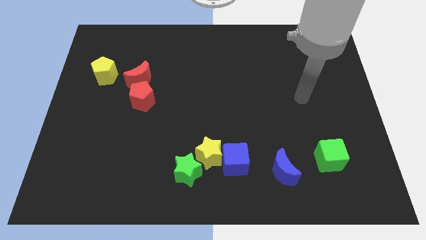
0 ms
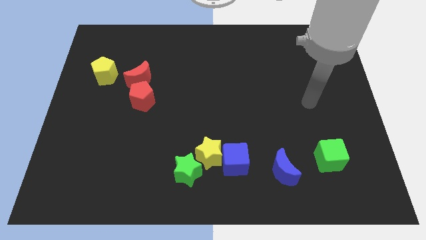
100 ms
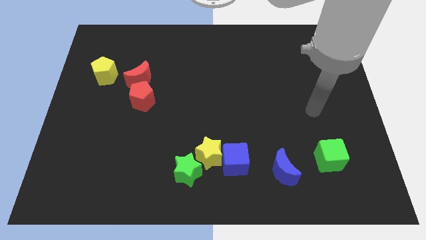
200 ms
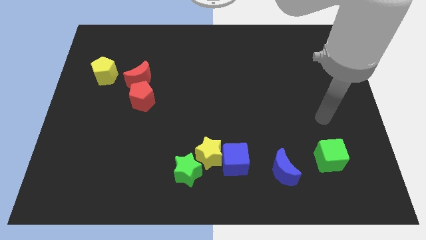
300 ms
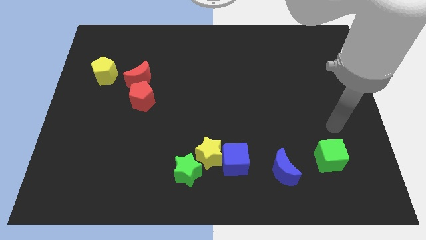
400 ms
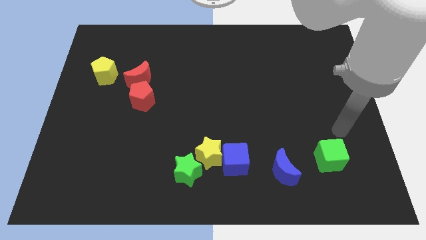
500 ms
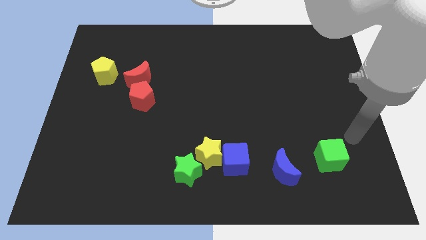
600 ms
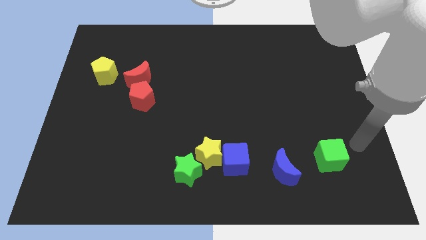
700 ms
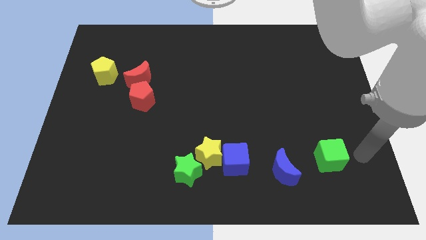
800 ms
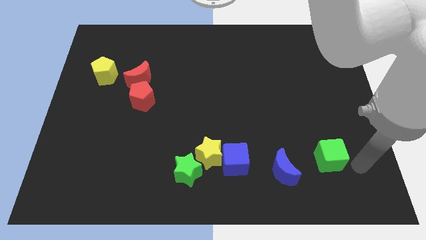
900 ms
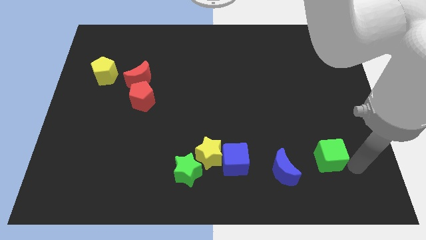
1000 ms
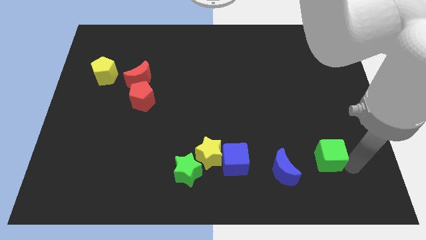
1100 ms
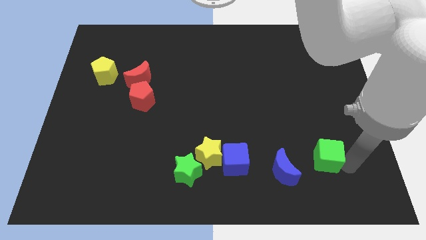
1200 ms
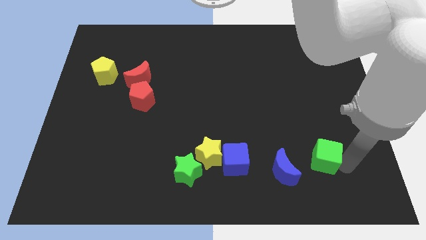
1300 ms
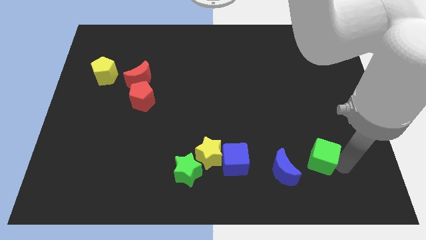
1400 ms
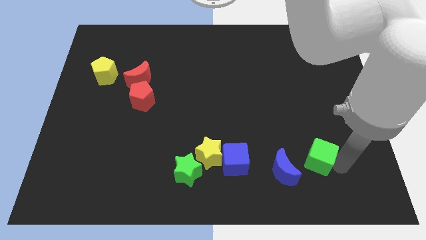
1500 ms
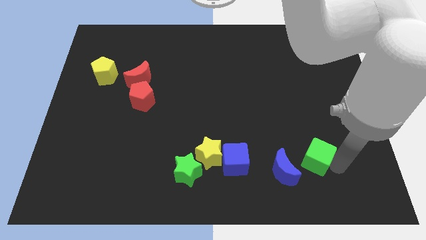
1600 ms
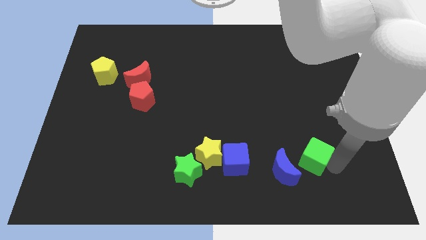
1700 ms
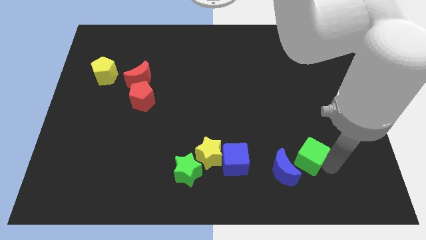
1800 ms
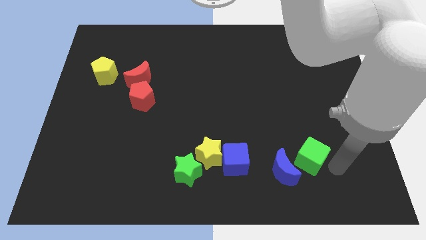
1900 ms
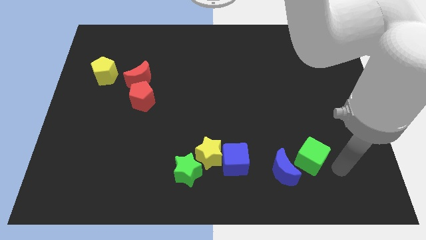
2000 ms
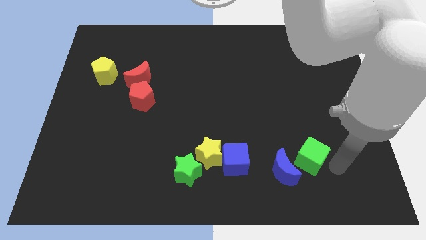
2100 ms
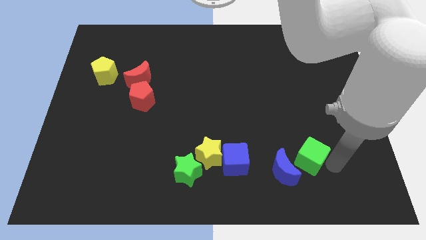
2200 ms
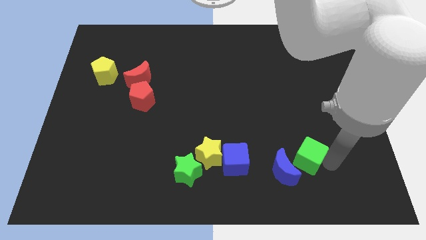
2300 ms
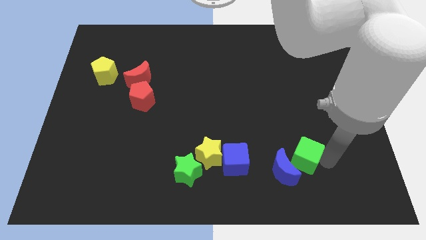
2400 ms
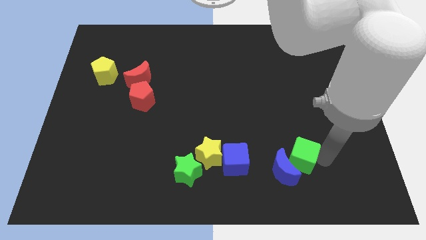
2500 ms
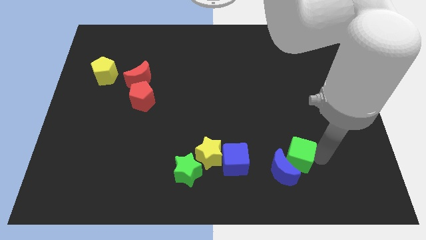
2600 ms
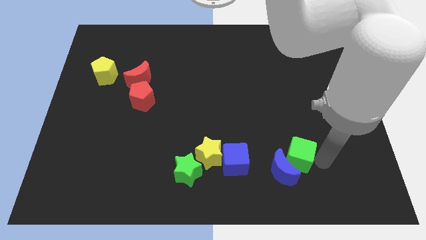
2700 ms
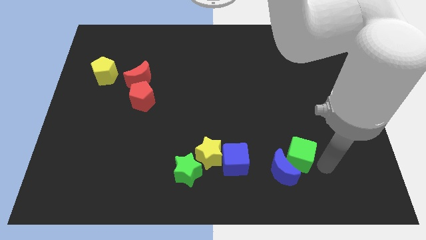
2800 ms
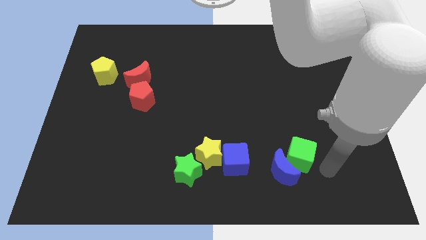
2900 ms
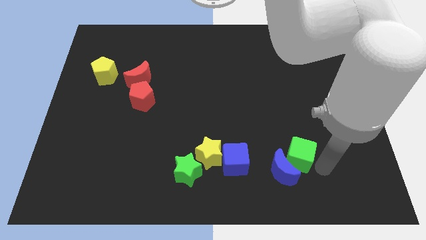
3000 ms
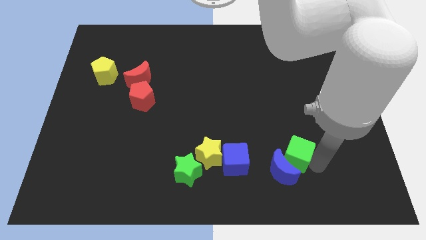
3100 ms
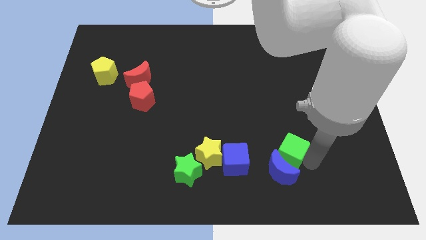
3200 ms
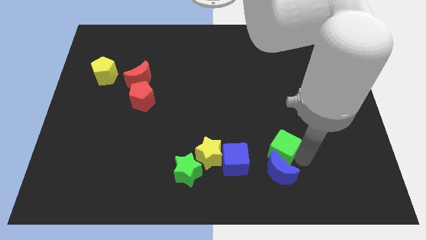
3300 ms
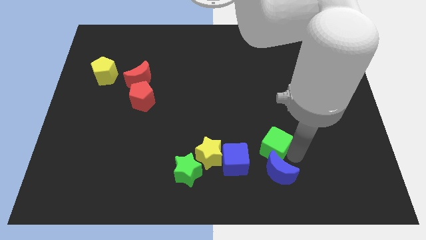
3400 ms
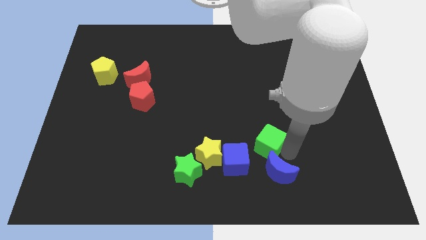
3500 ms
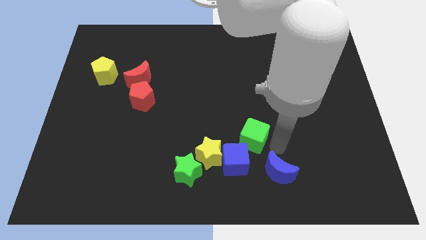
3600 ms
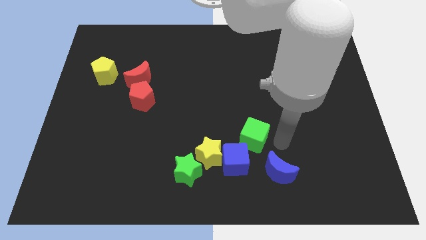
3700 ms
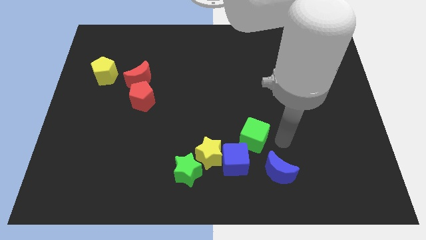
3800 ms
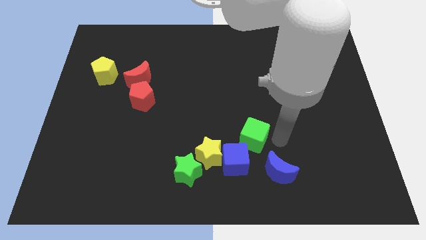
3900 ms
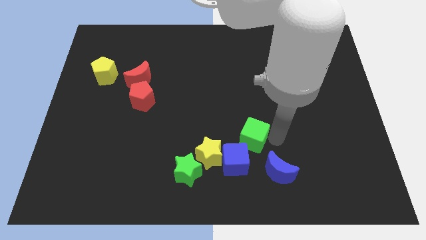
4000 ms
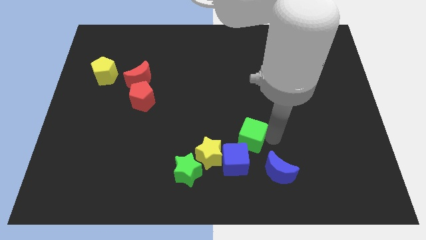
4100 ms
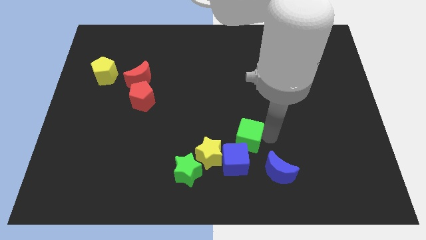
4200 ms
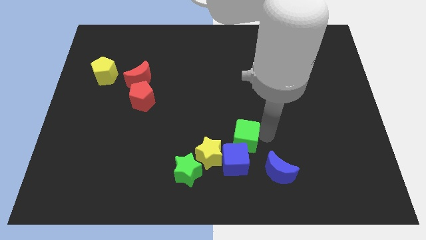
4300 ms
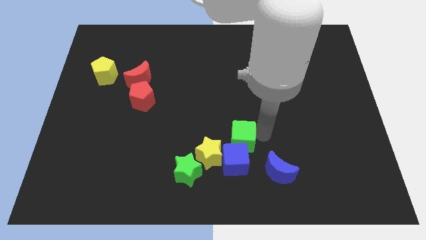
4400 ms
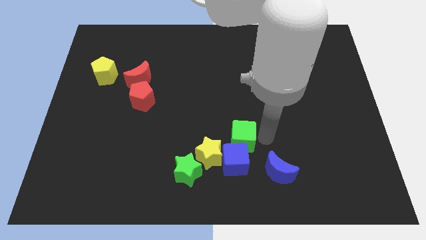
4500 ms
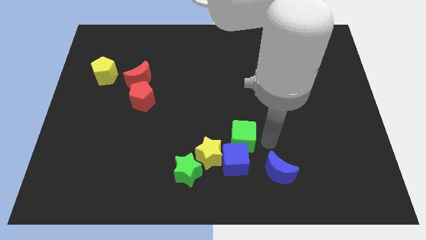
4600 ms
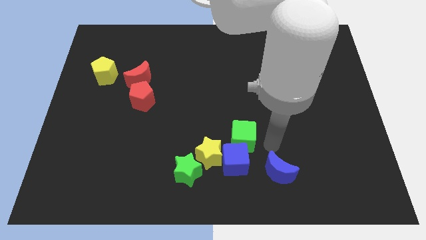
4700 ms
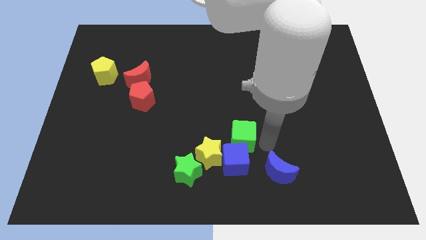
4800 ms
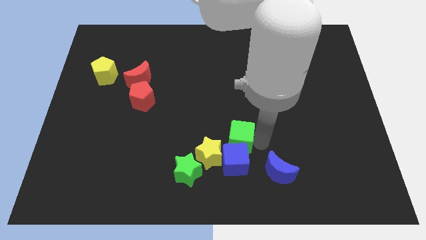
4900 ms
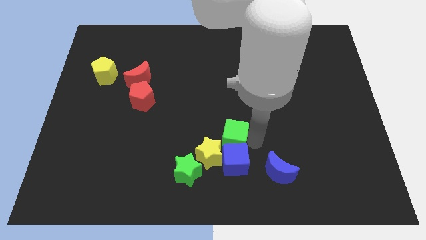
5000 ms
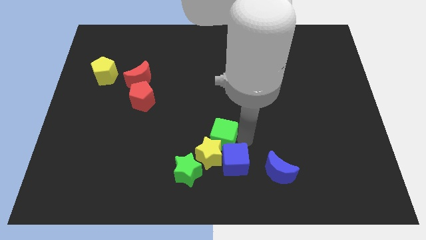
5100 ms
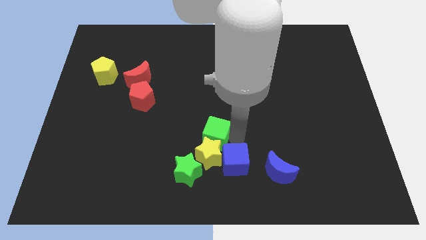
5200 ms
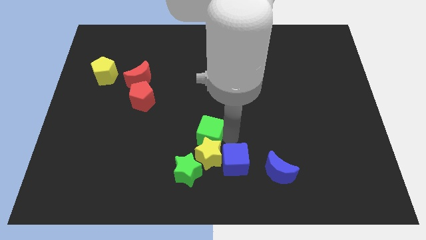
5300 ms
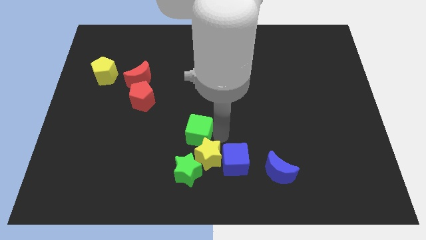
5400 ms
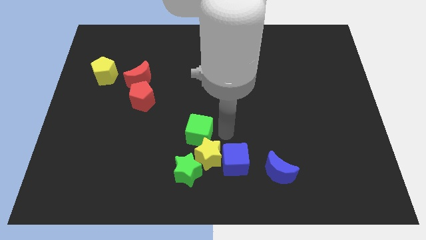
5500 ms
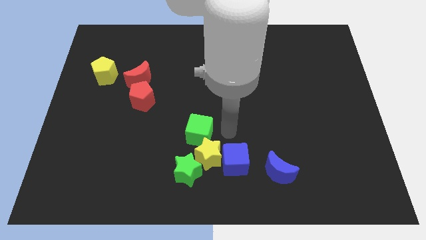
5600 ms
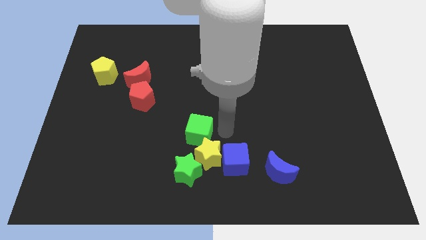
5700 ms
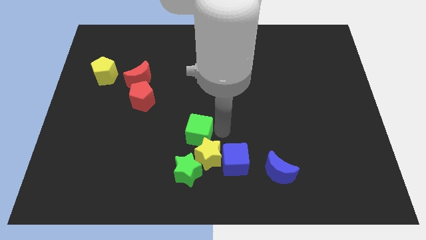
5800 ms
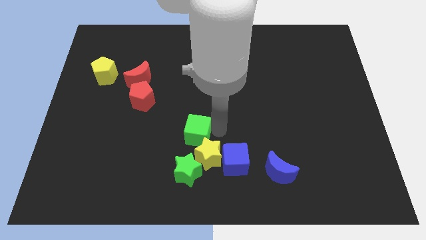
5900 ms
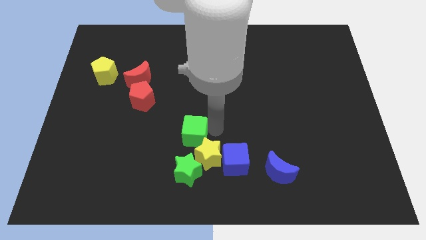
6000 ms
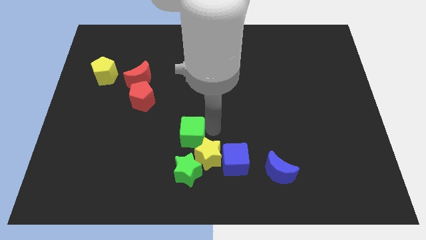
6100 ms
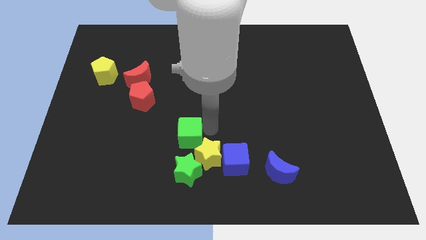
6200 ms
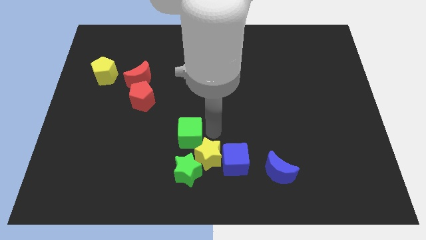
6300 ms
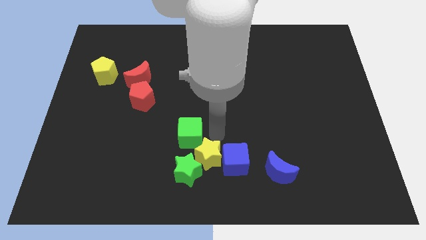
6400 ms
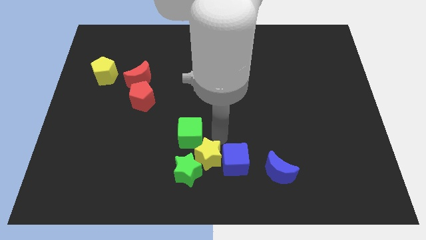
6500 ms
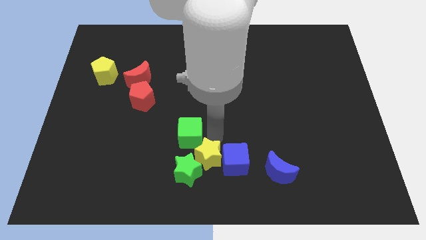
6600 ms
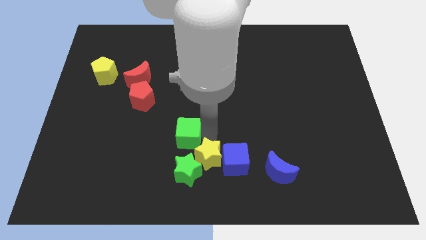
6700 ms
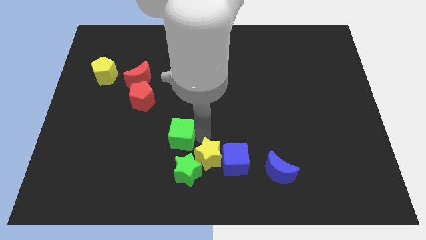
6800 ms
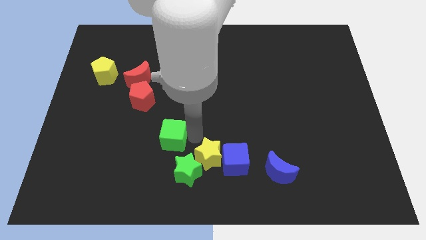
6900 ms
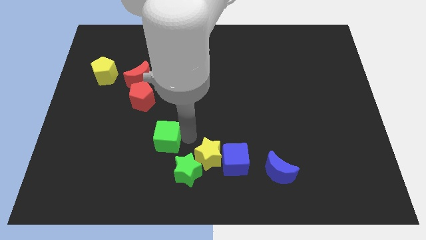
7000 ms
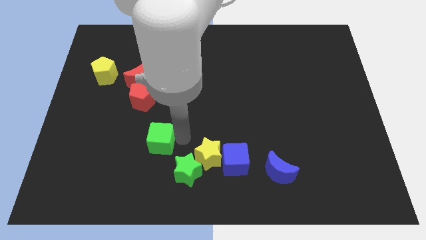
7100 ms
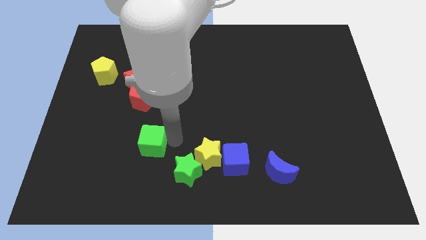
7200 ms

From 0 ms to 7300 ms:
slide the green cube below the red pentagon
